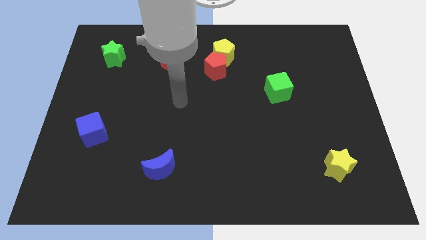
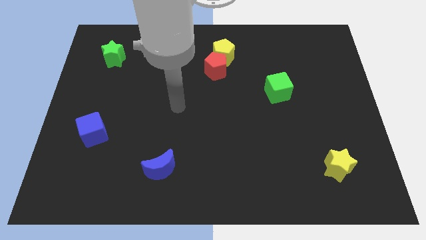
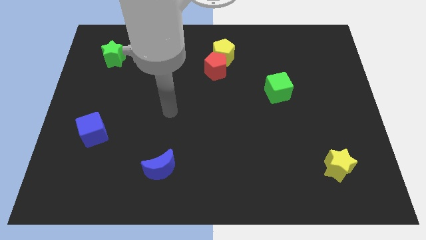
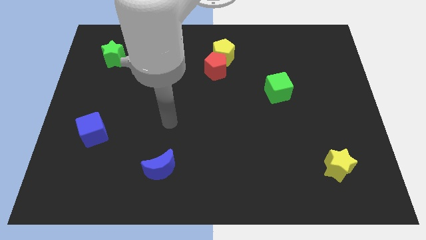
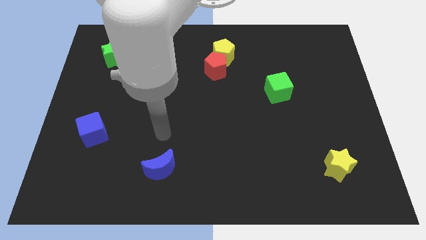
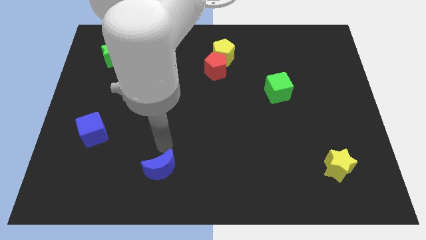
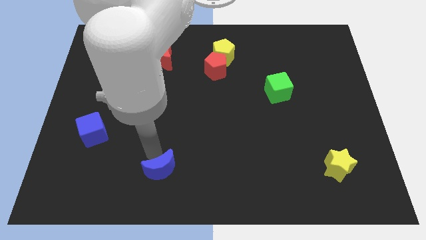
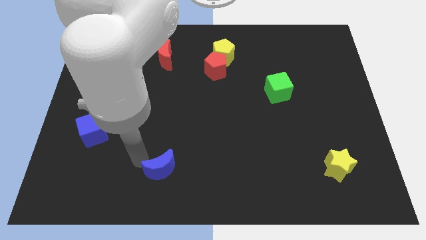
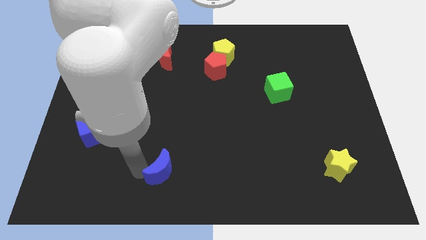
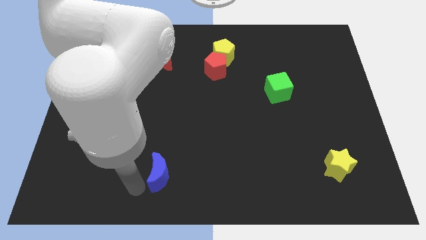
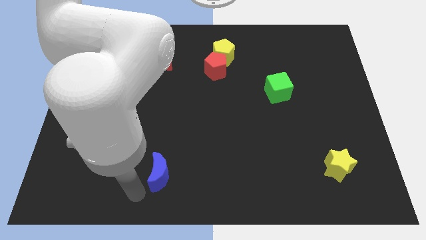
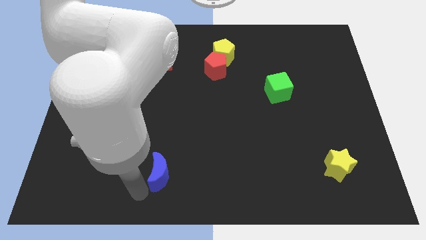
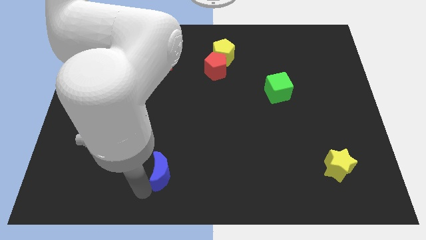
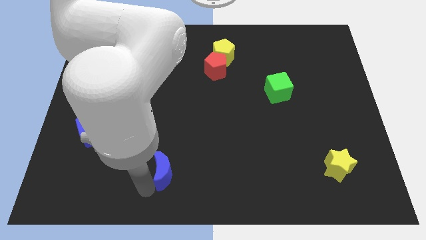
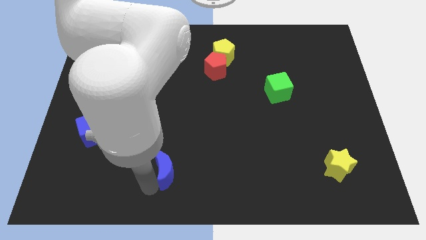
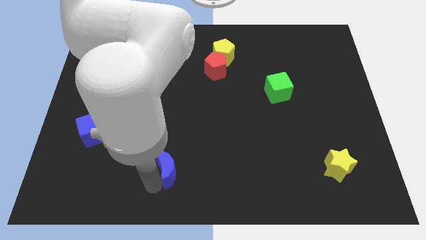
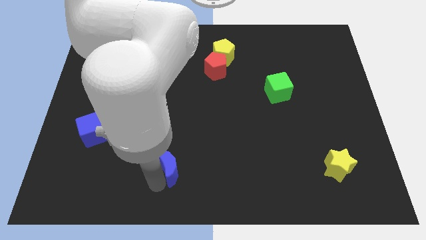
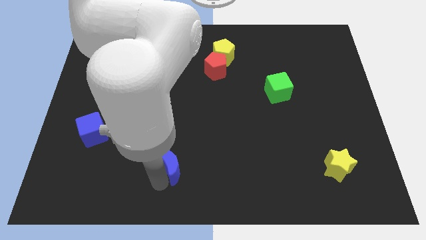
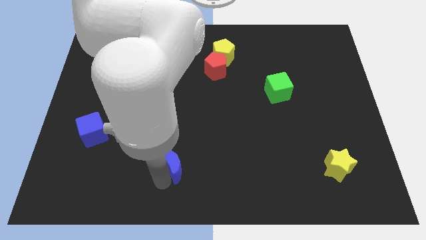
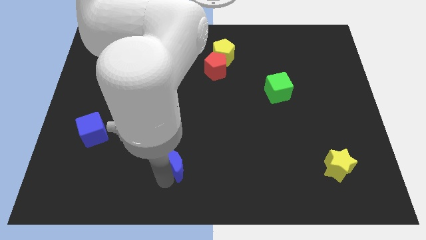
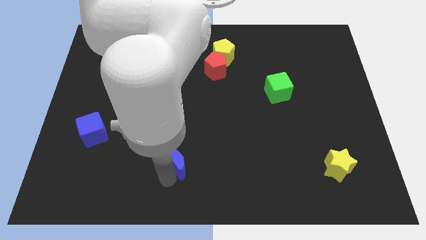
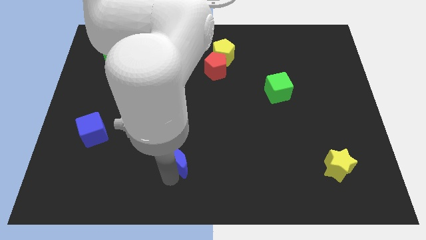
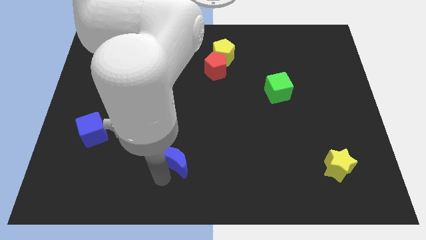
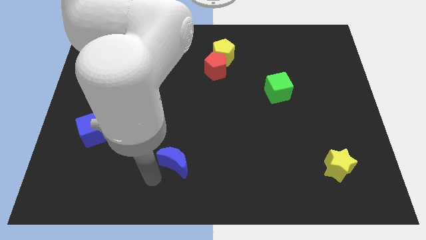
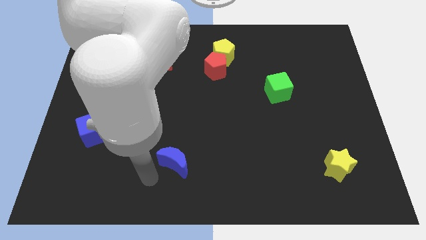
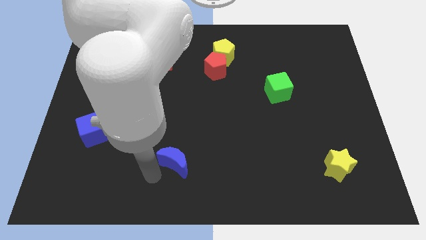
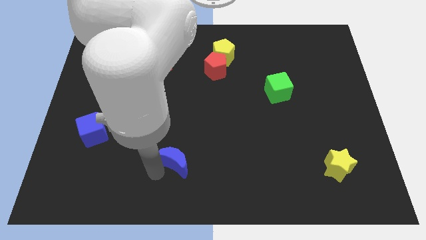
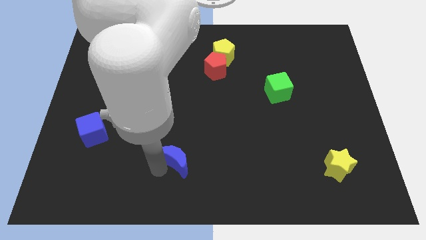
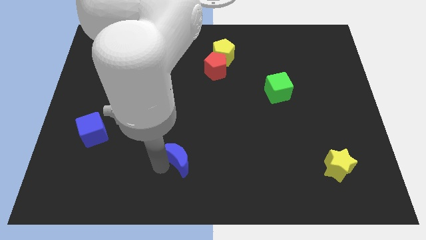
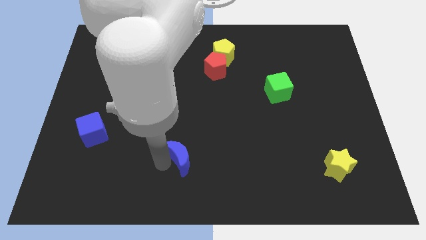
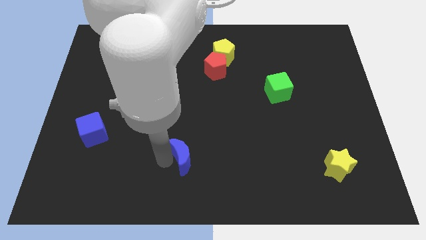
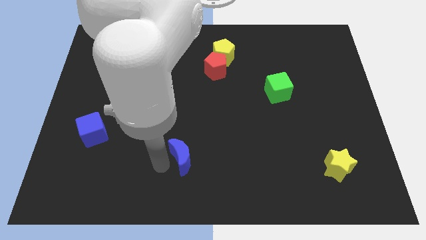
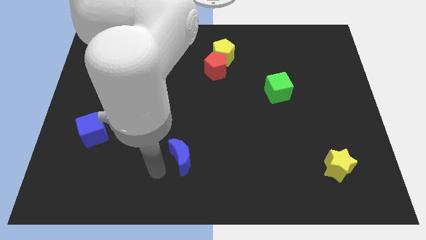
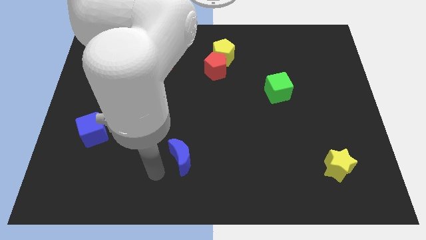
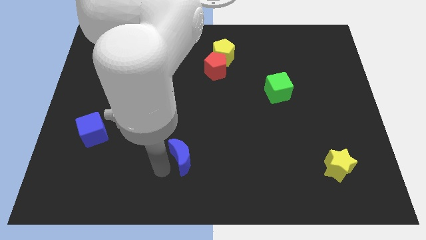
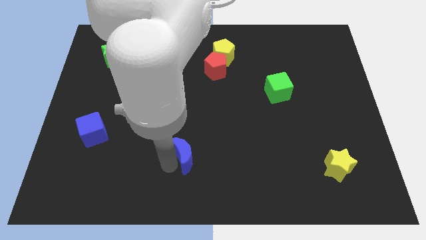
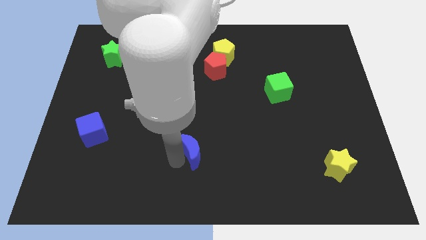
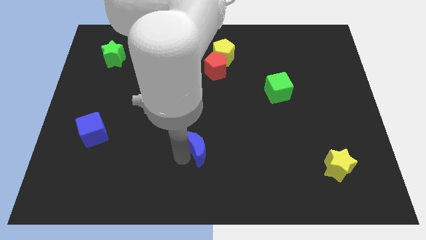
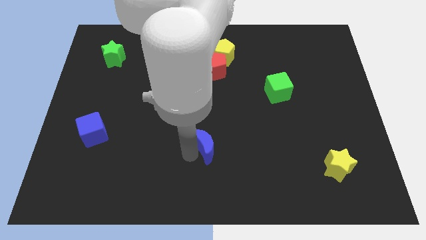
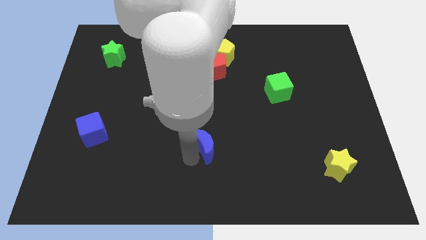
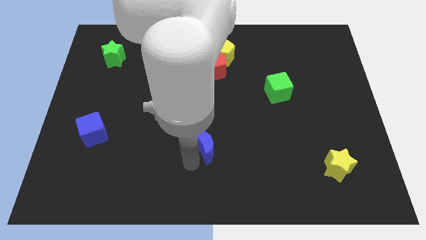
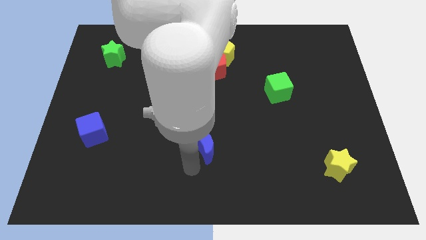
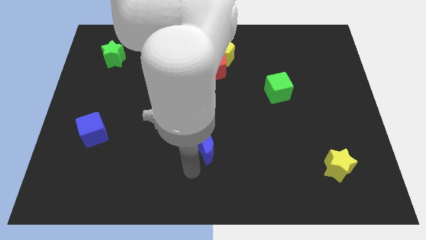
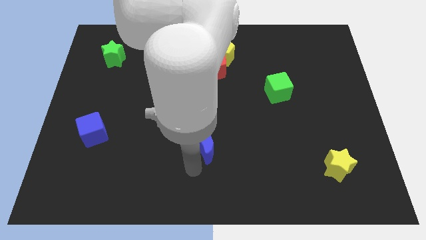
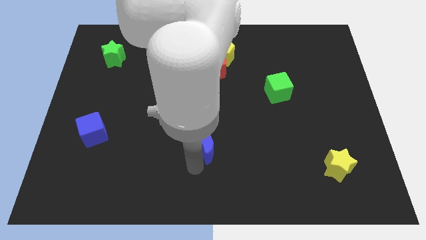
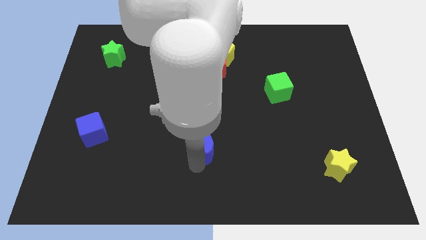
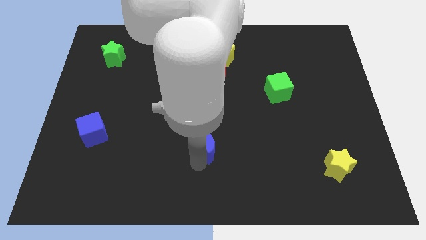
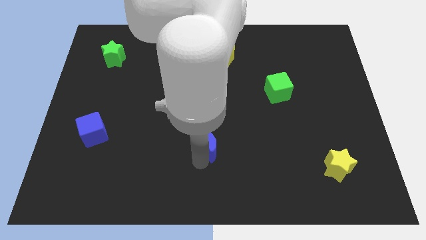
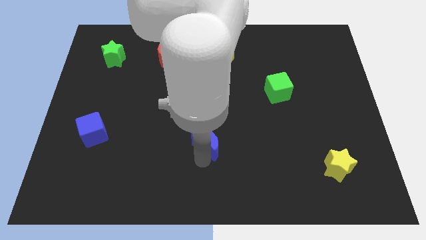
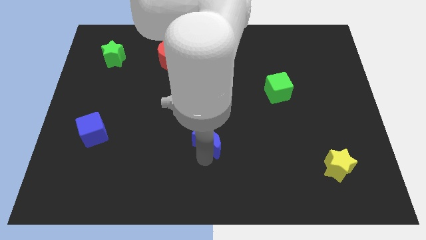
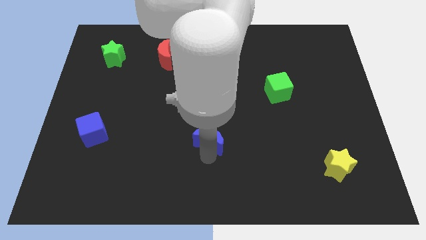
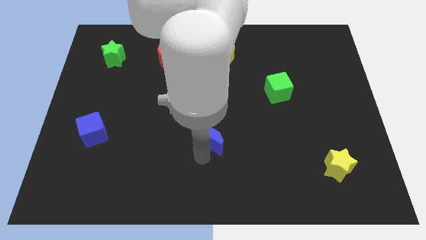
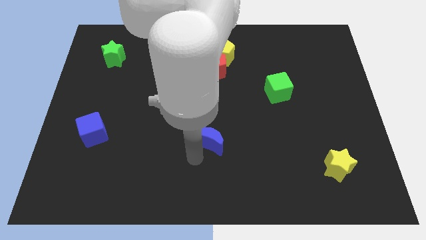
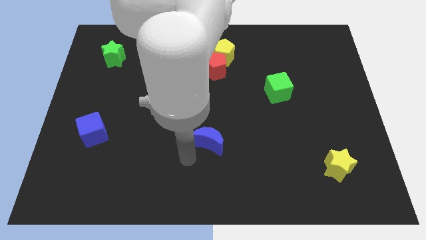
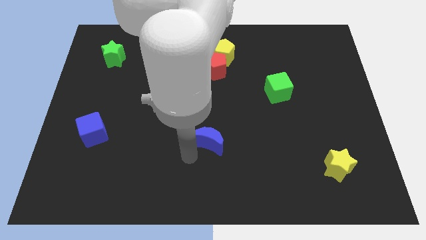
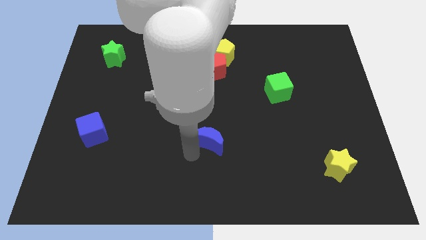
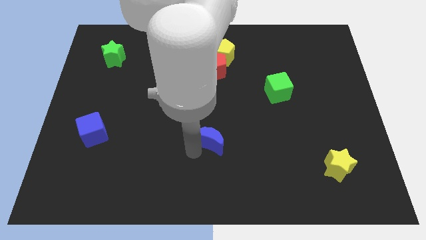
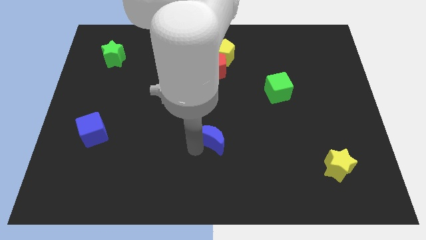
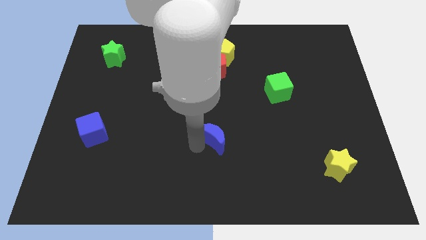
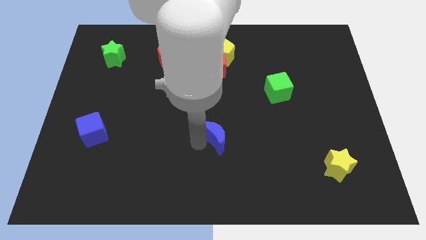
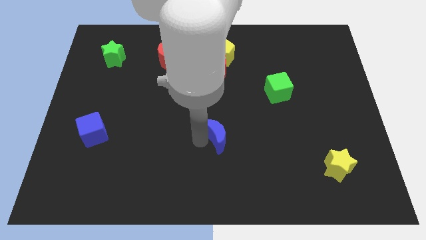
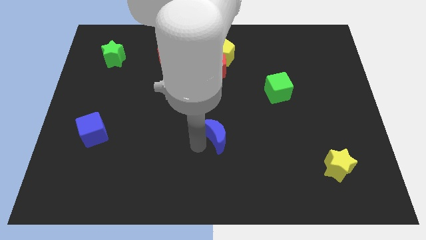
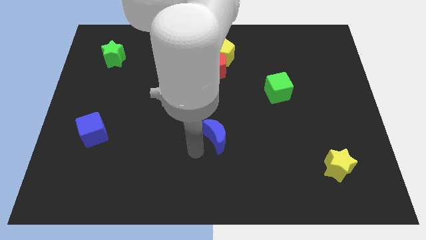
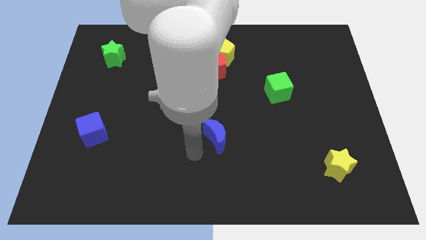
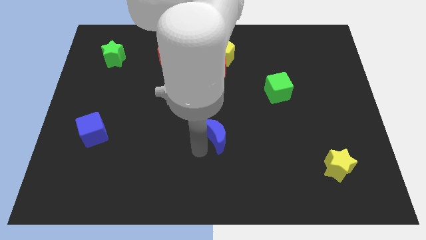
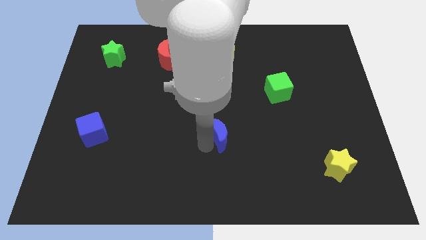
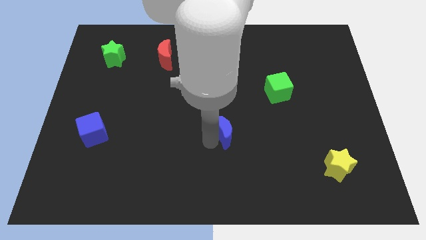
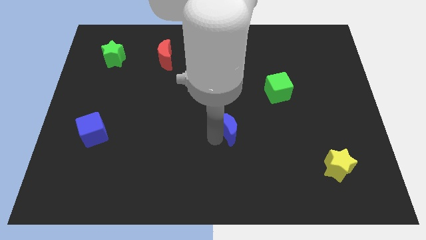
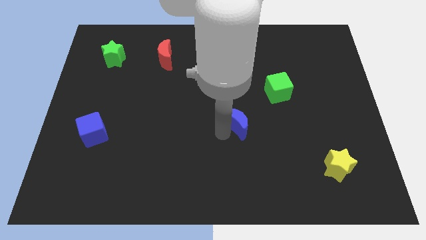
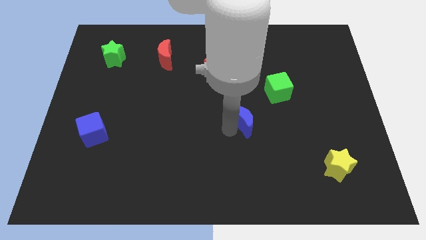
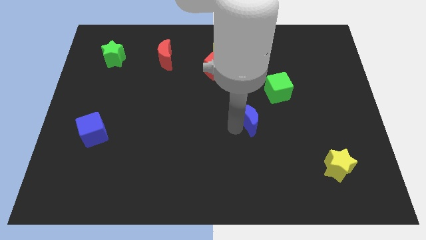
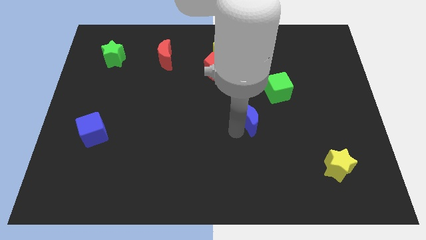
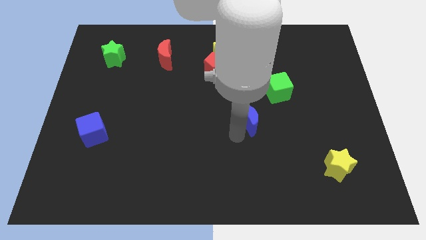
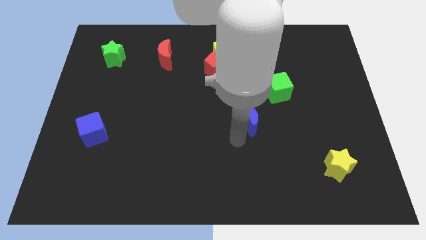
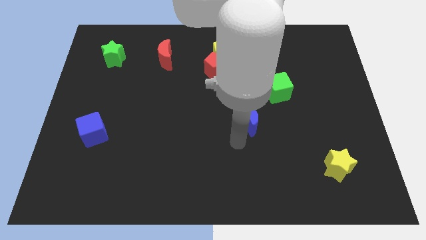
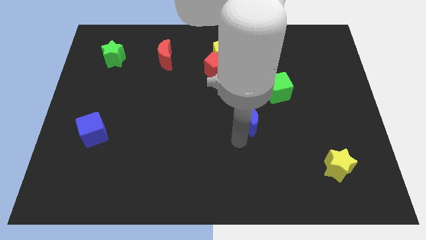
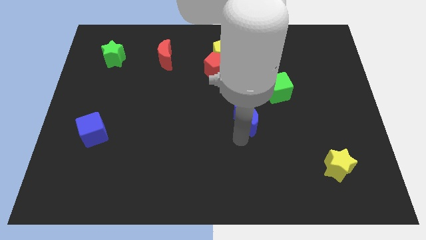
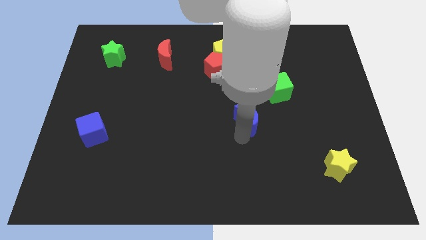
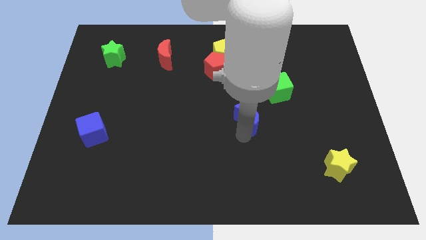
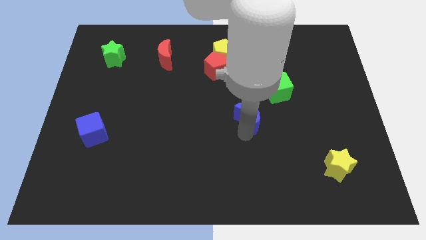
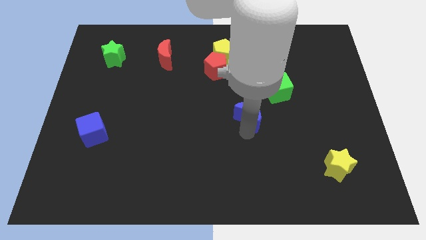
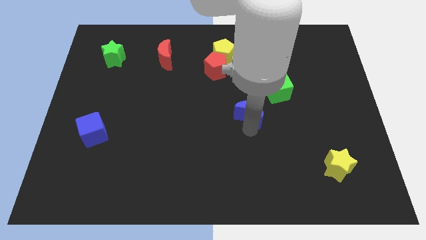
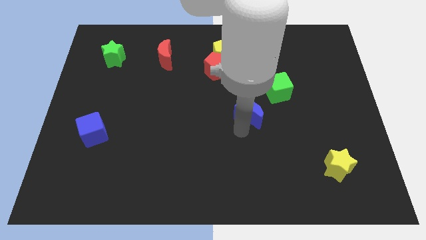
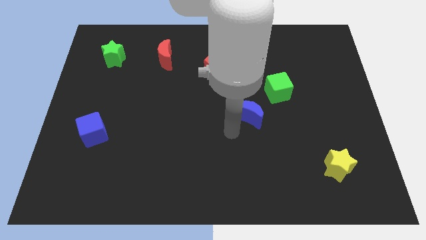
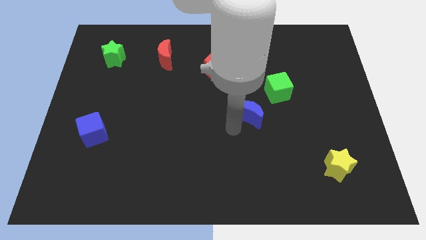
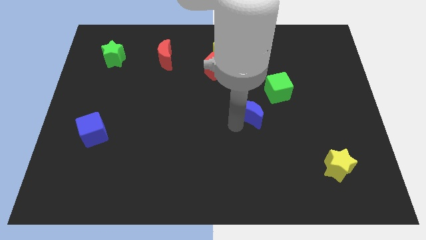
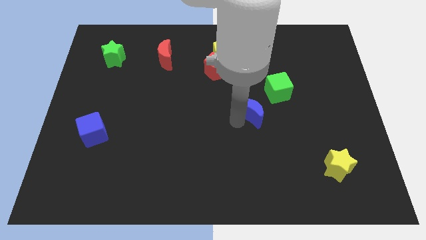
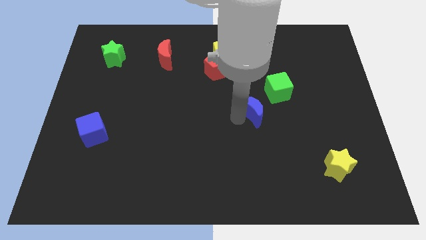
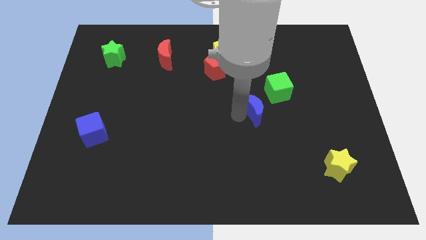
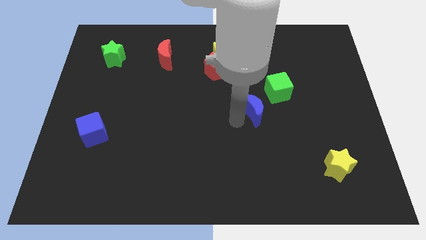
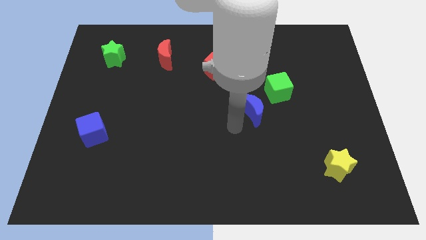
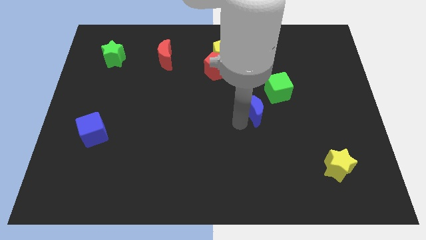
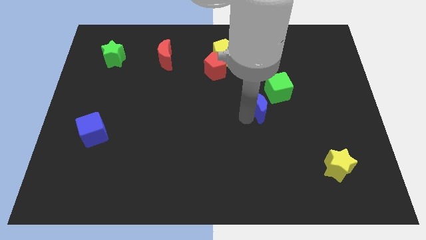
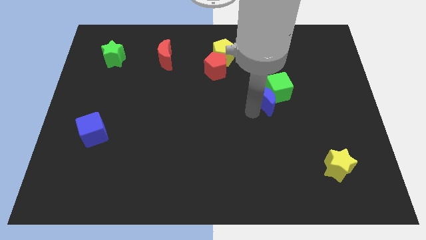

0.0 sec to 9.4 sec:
push the blue moon close to the green cube
